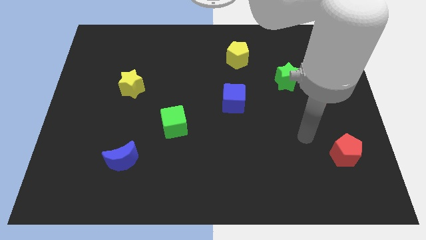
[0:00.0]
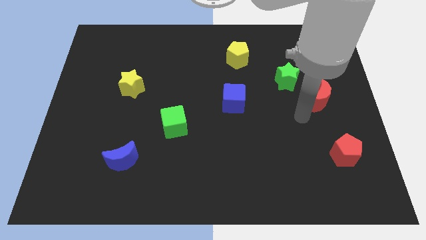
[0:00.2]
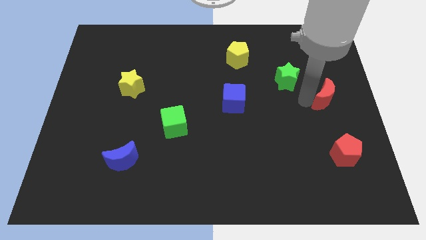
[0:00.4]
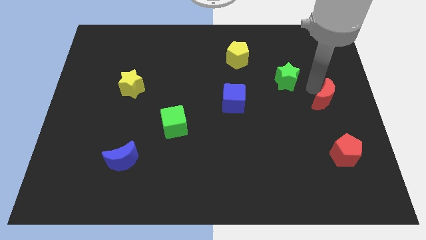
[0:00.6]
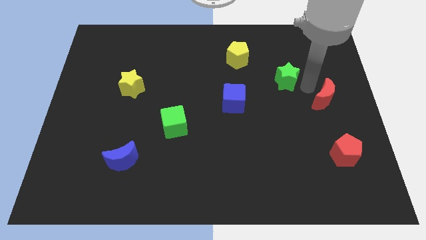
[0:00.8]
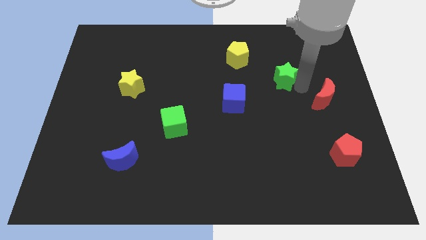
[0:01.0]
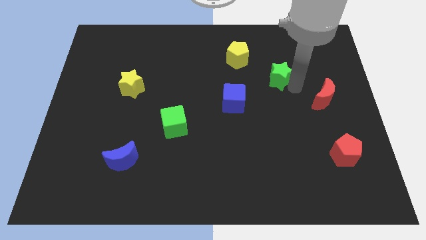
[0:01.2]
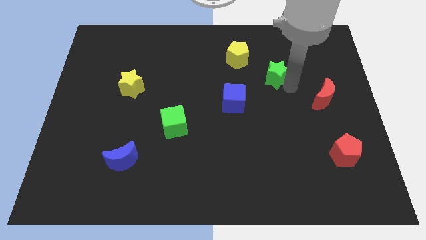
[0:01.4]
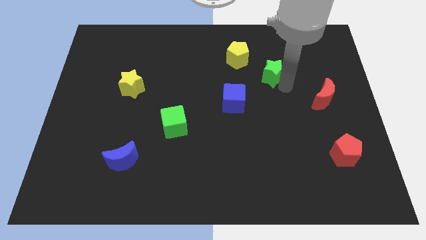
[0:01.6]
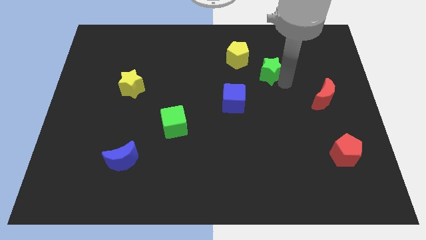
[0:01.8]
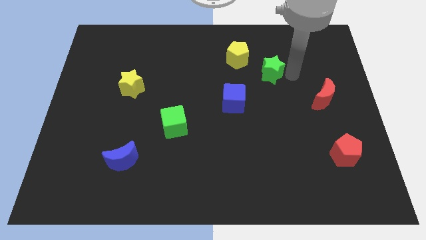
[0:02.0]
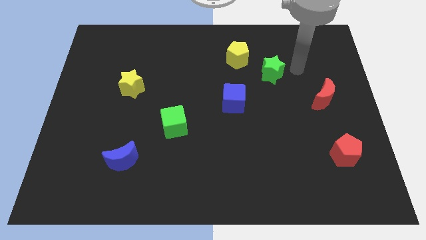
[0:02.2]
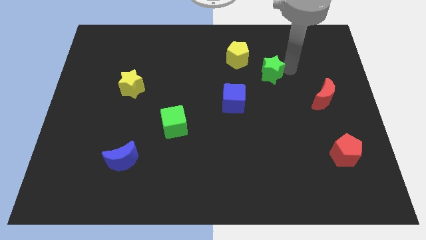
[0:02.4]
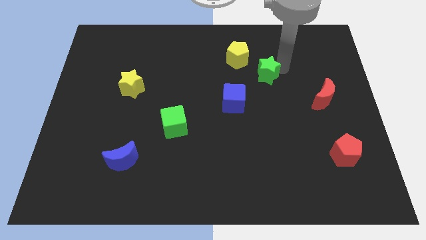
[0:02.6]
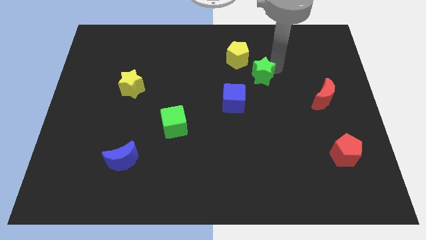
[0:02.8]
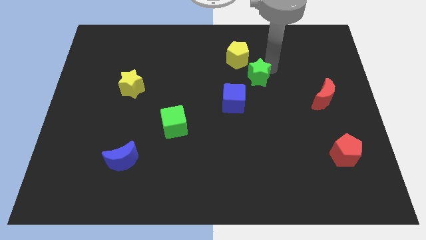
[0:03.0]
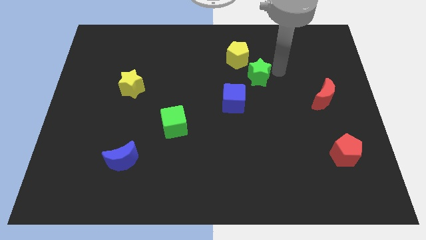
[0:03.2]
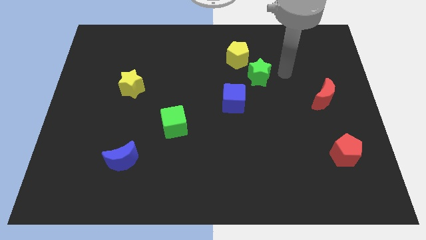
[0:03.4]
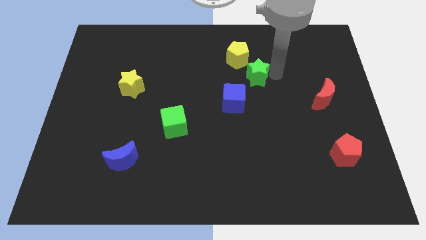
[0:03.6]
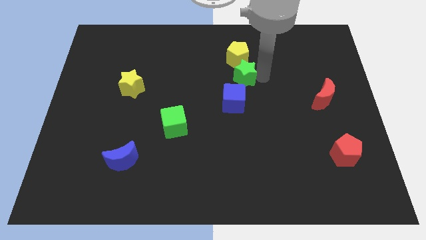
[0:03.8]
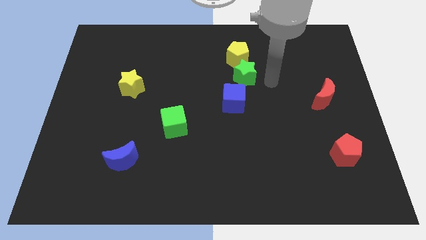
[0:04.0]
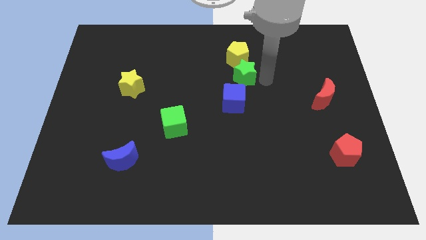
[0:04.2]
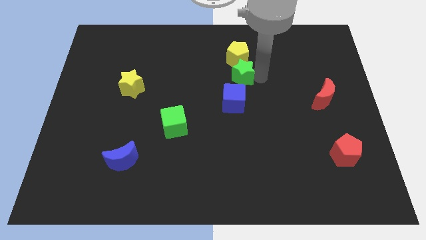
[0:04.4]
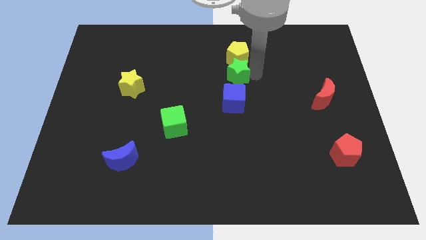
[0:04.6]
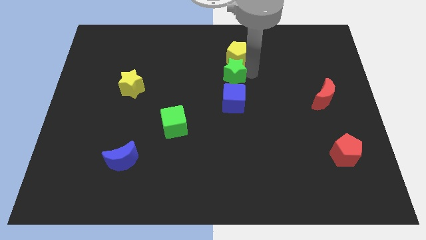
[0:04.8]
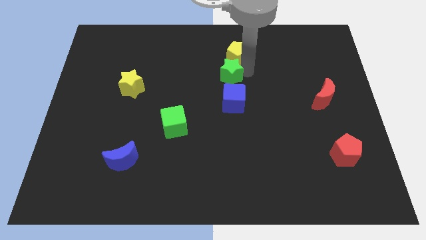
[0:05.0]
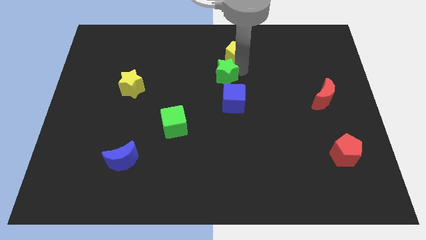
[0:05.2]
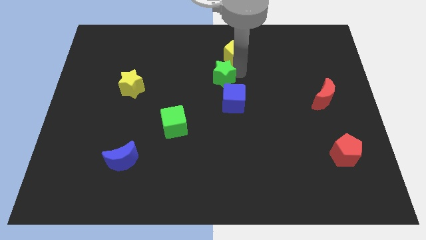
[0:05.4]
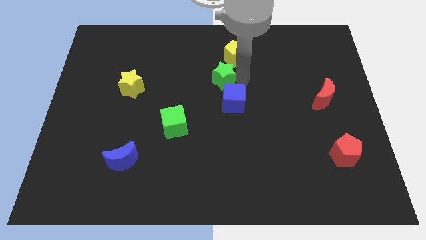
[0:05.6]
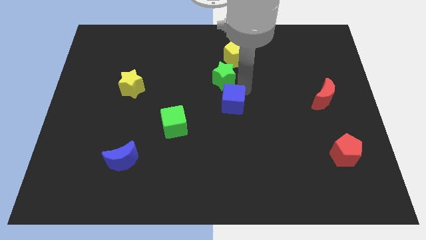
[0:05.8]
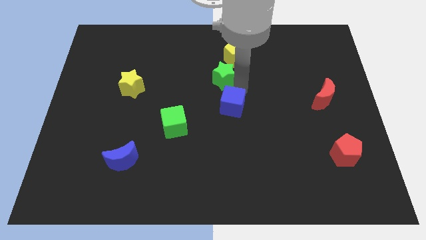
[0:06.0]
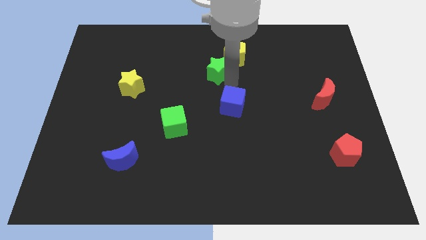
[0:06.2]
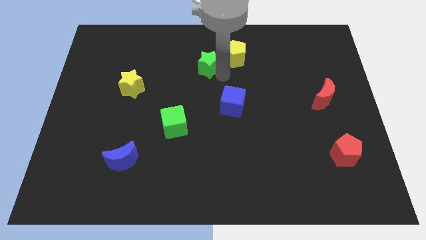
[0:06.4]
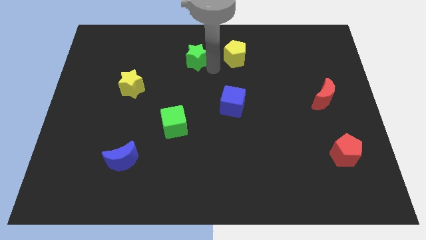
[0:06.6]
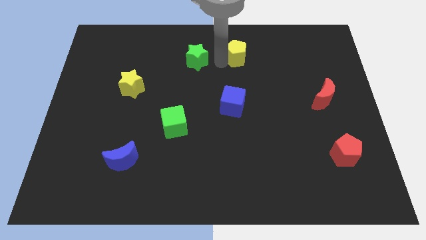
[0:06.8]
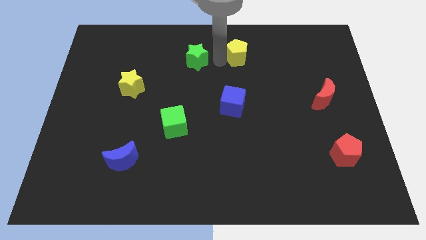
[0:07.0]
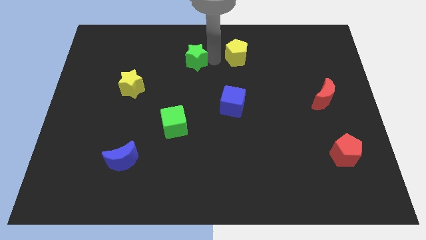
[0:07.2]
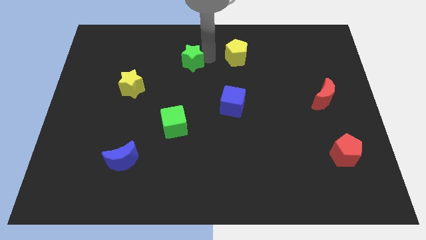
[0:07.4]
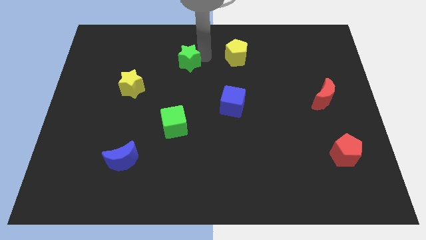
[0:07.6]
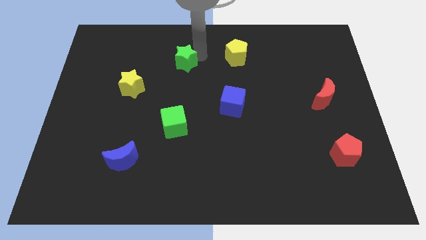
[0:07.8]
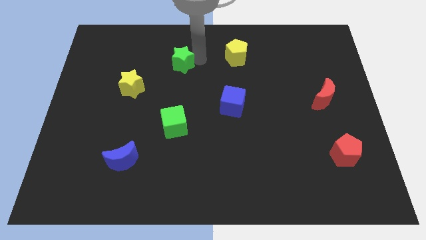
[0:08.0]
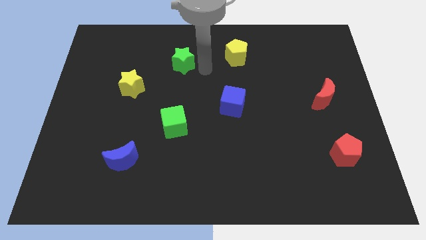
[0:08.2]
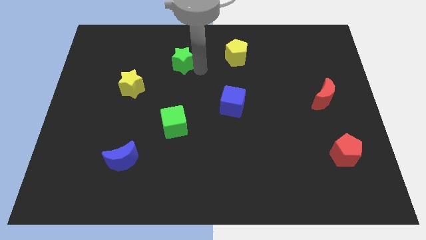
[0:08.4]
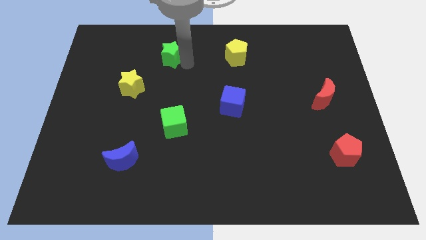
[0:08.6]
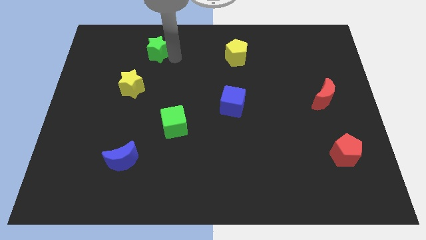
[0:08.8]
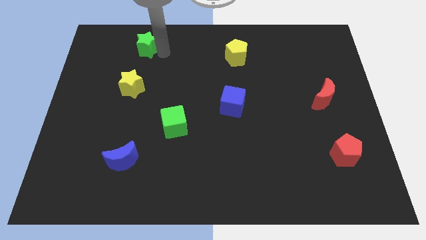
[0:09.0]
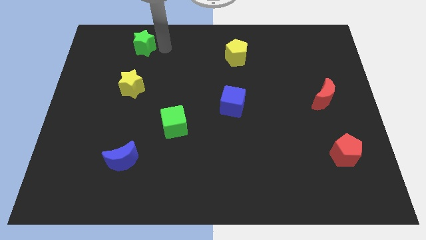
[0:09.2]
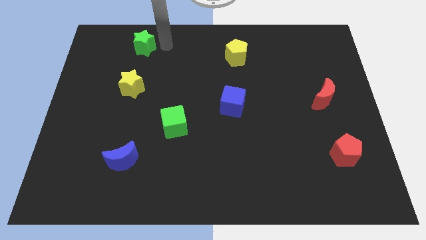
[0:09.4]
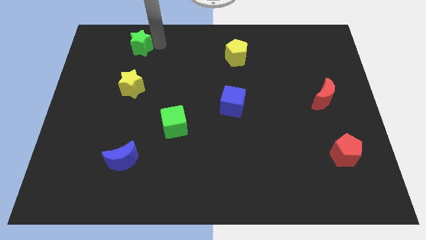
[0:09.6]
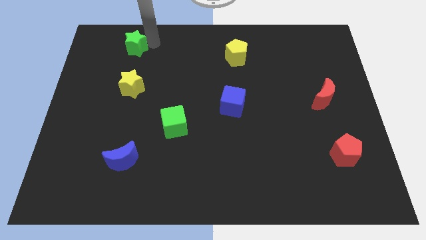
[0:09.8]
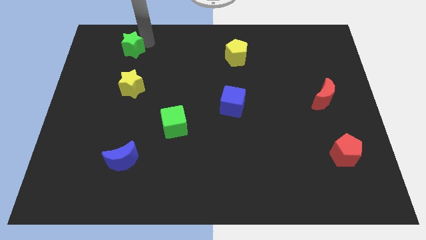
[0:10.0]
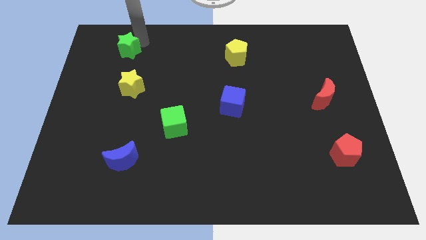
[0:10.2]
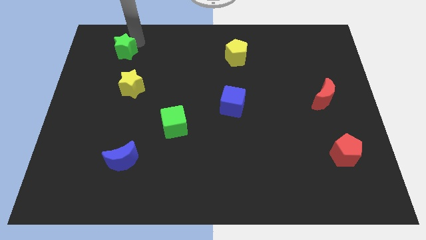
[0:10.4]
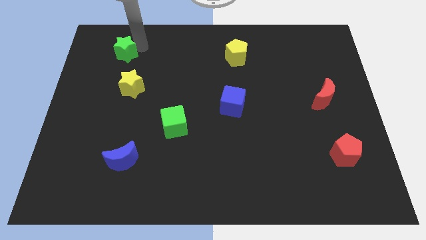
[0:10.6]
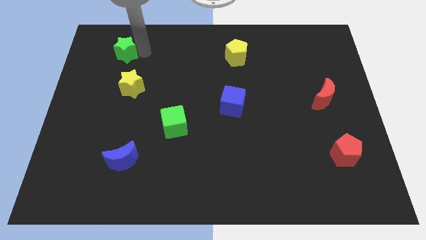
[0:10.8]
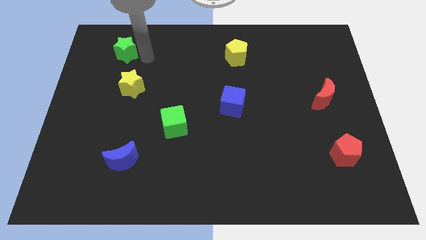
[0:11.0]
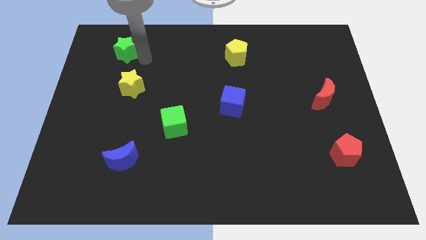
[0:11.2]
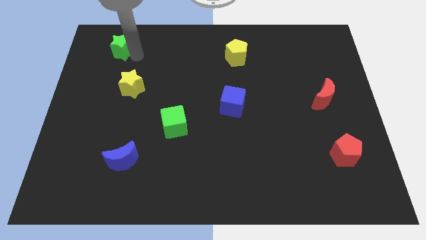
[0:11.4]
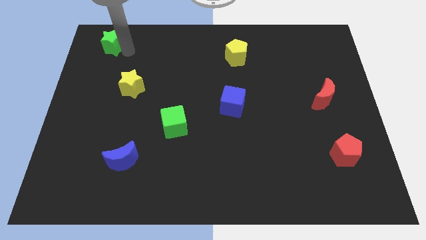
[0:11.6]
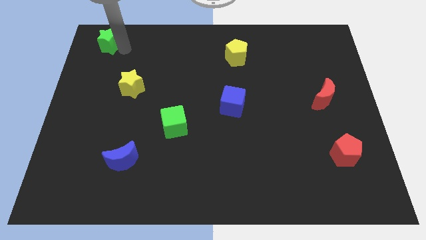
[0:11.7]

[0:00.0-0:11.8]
move the green star to the top left corner

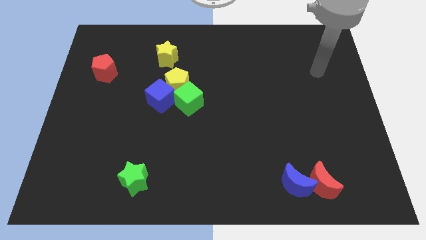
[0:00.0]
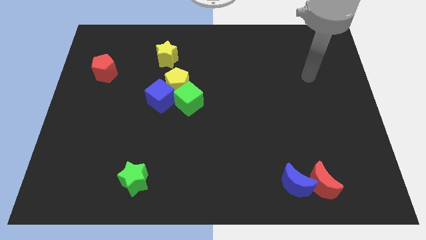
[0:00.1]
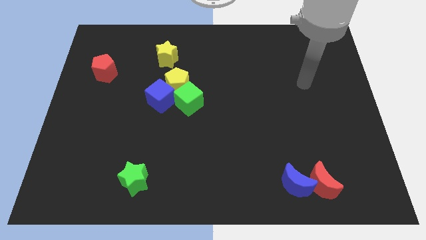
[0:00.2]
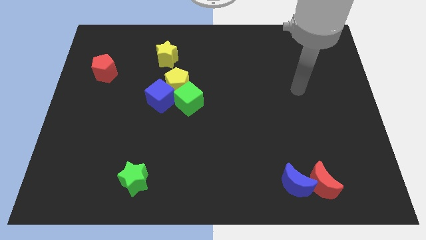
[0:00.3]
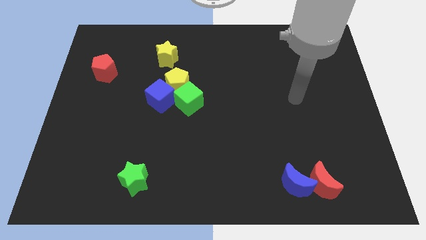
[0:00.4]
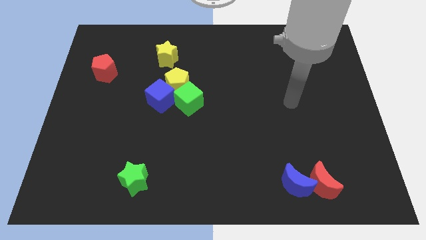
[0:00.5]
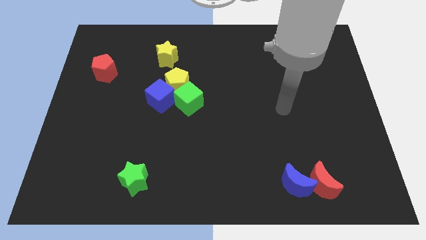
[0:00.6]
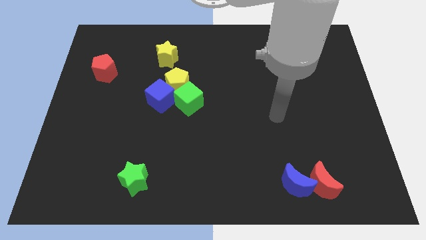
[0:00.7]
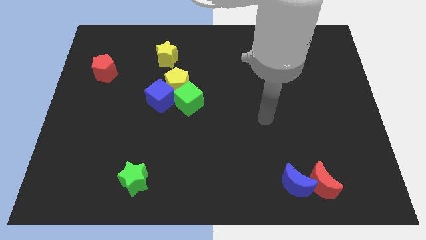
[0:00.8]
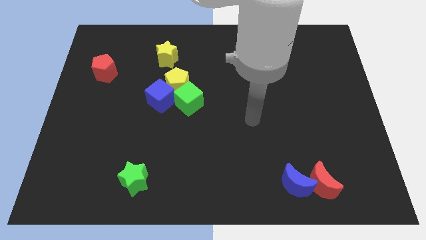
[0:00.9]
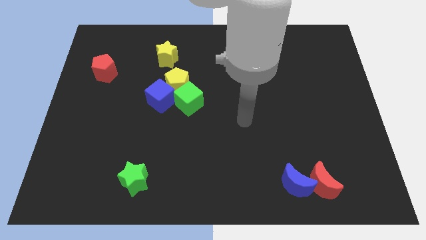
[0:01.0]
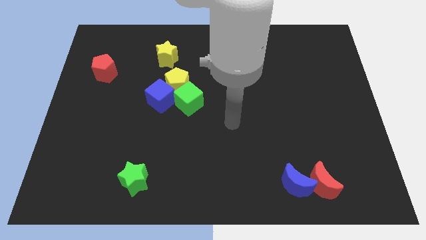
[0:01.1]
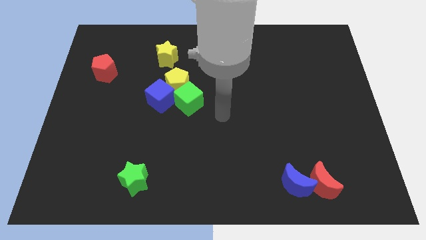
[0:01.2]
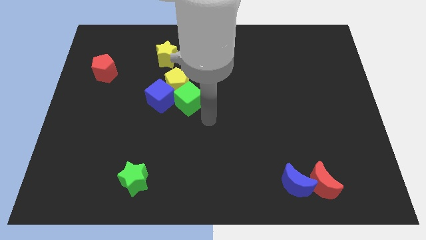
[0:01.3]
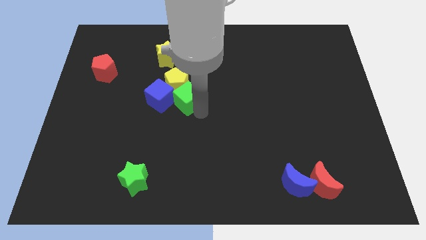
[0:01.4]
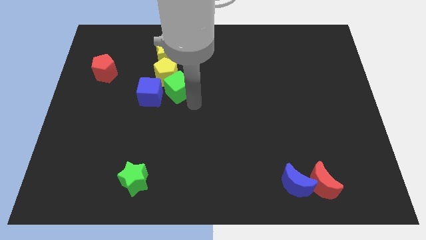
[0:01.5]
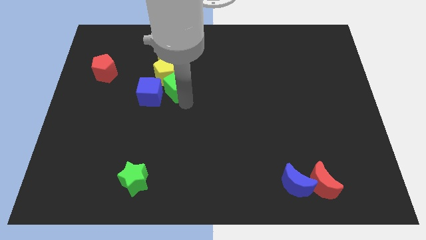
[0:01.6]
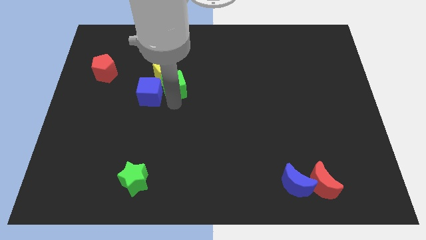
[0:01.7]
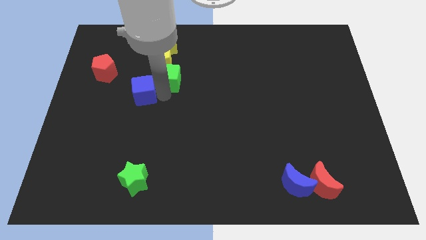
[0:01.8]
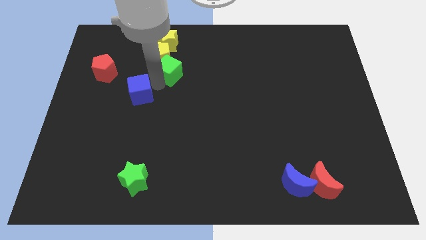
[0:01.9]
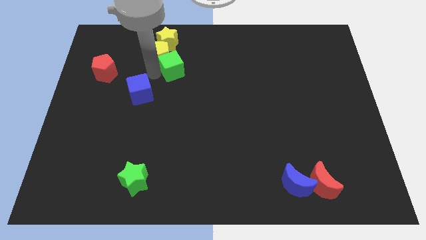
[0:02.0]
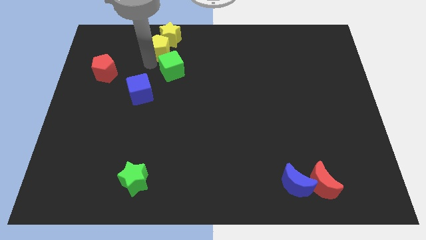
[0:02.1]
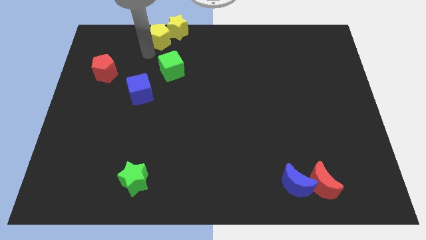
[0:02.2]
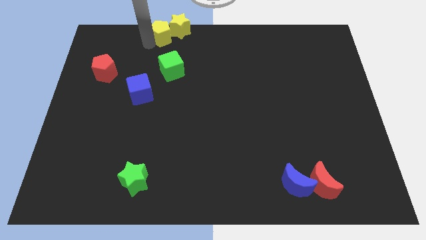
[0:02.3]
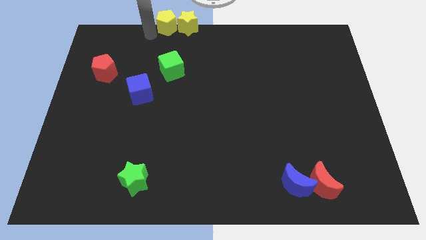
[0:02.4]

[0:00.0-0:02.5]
move the yellow pentagon to the top side
